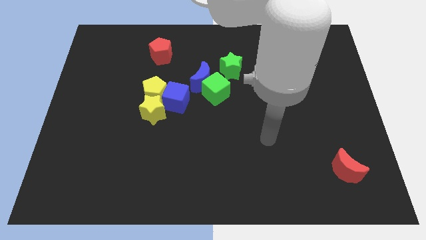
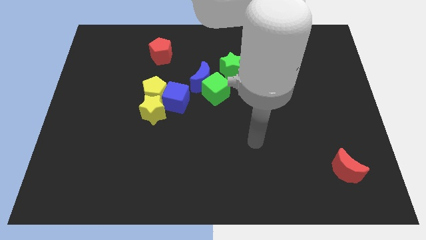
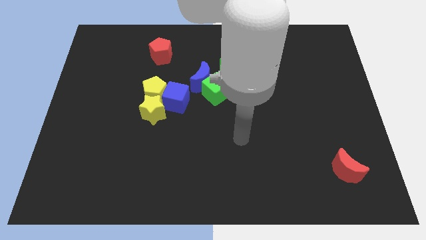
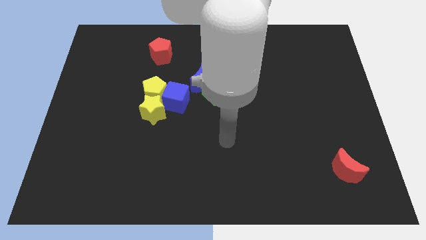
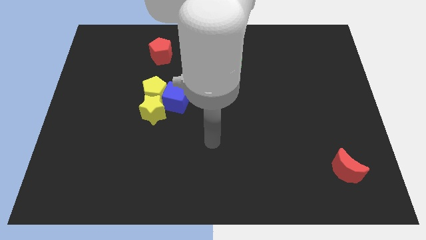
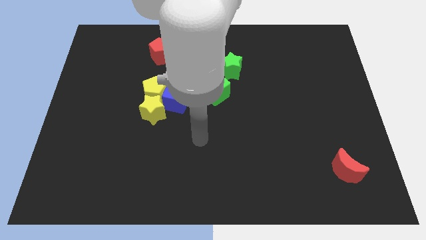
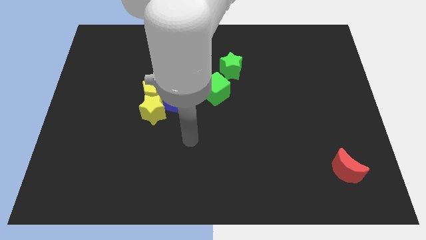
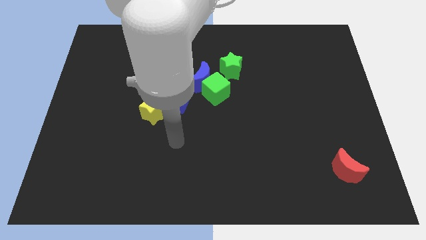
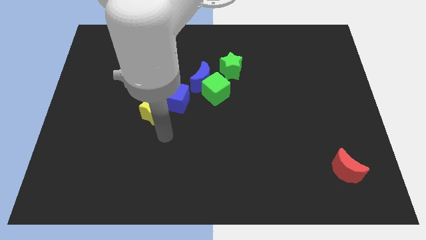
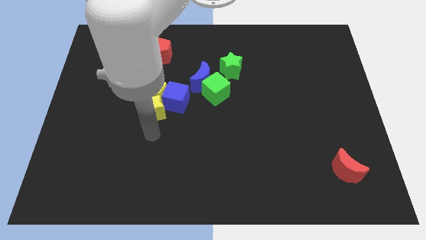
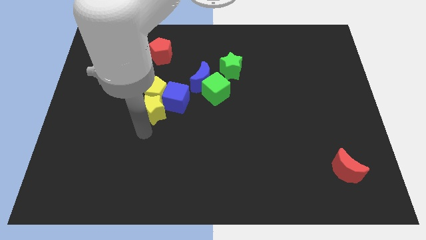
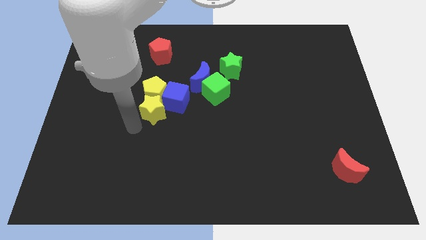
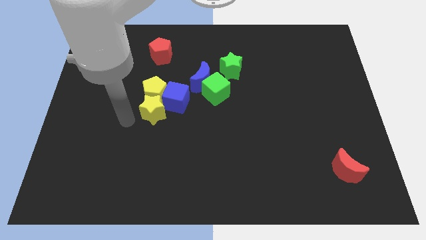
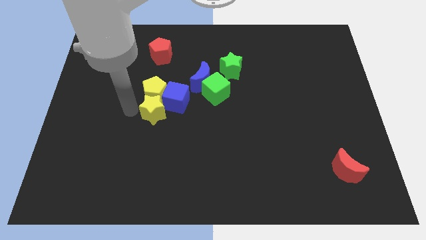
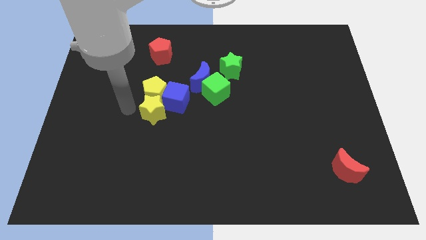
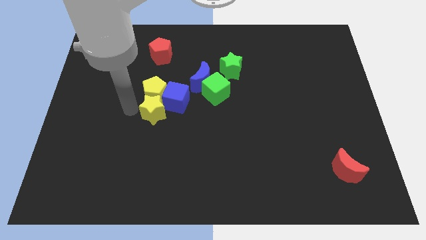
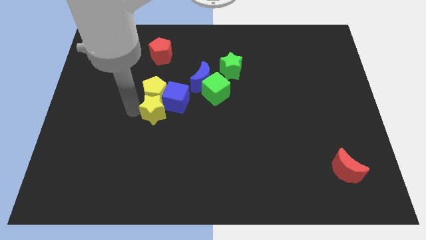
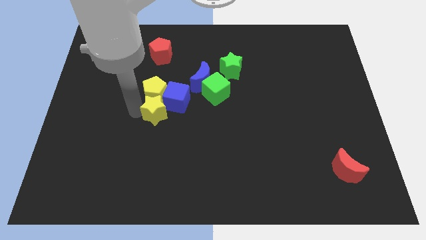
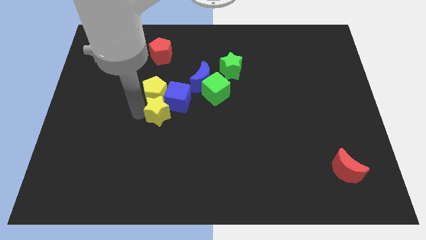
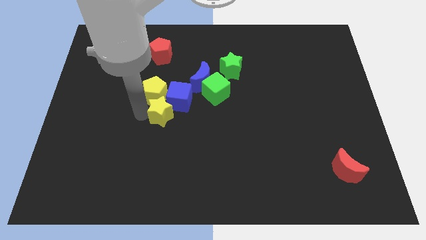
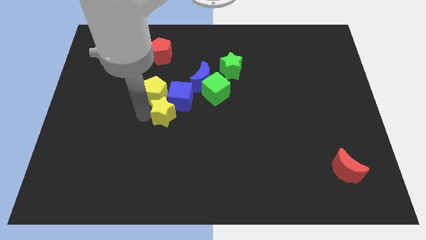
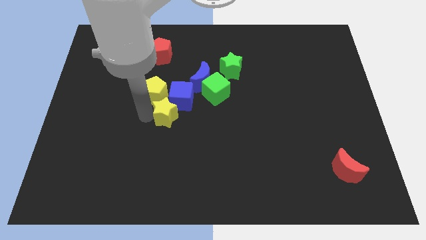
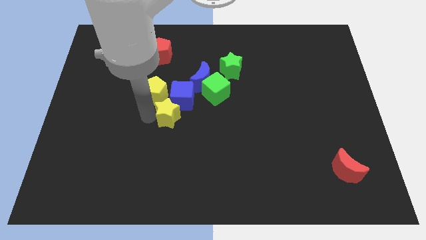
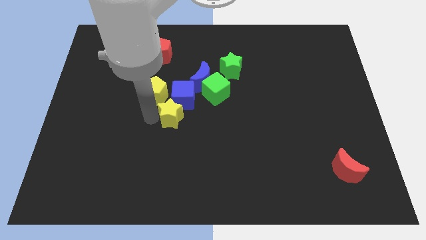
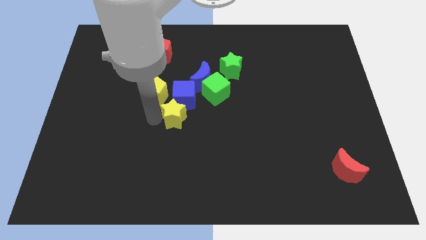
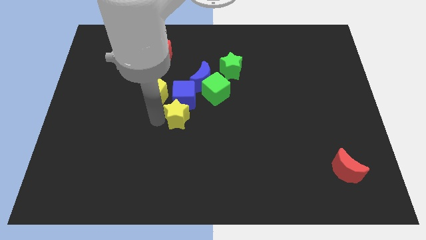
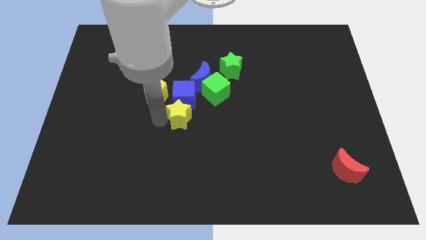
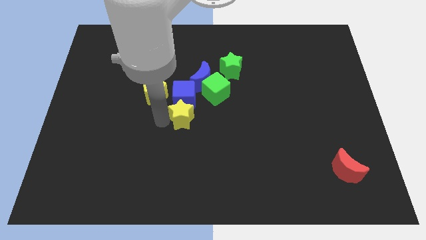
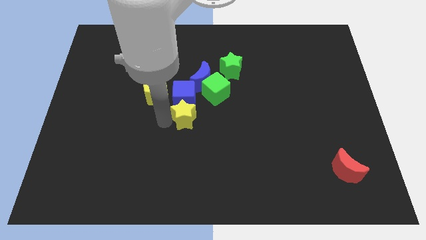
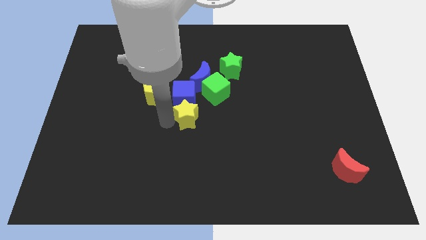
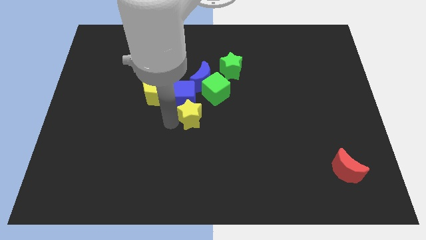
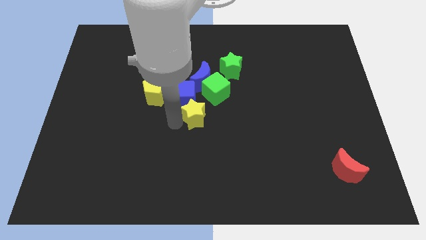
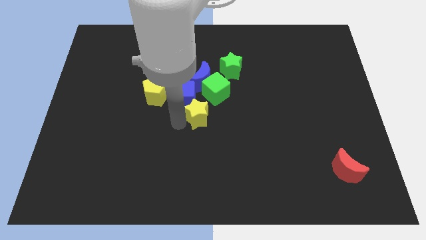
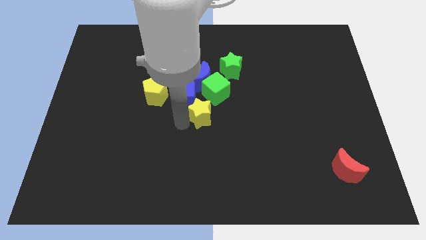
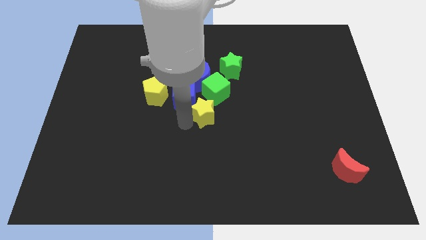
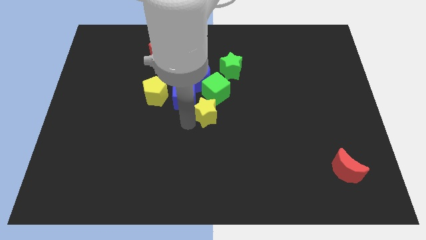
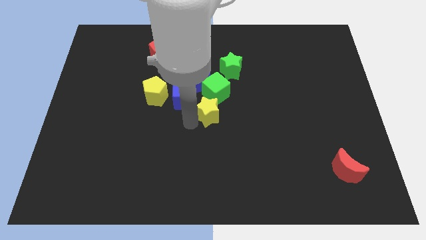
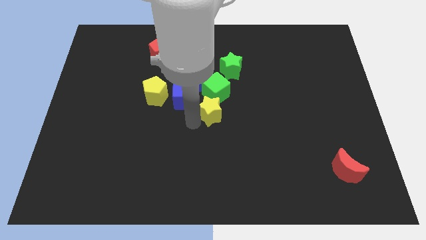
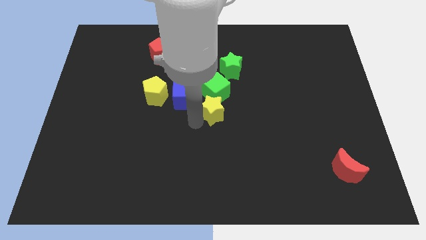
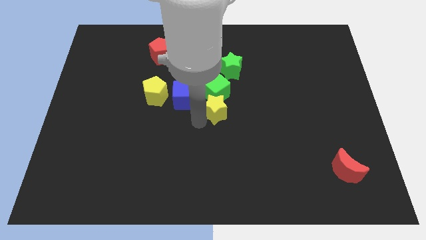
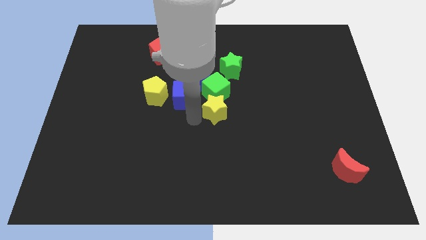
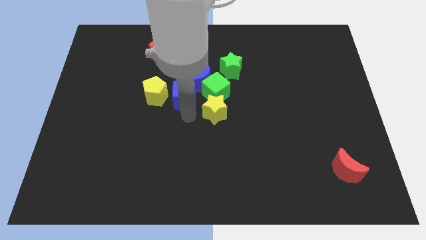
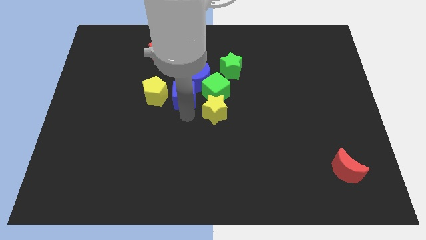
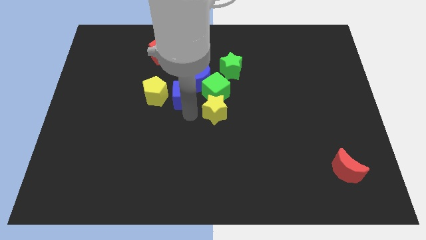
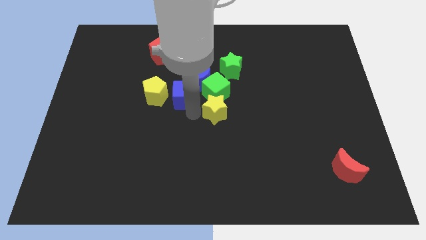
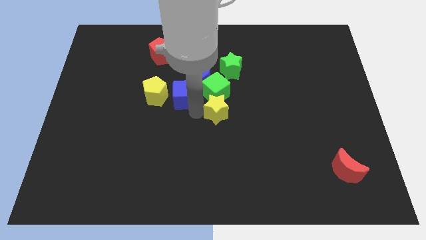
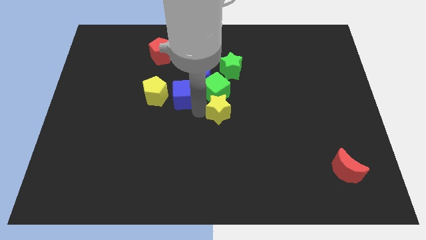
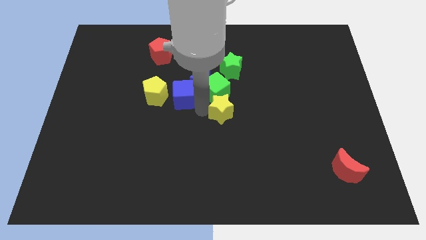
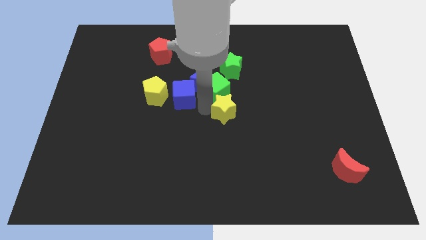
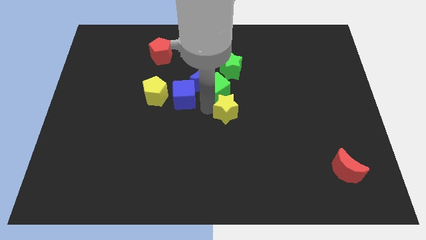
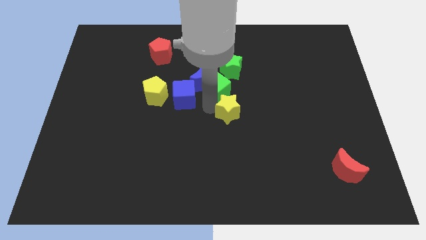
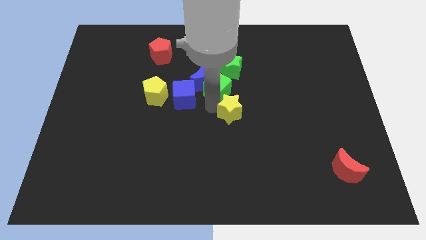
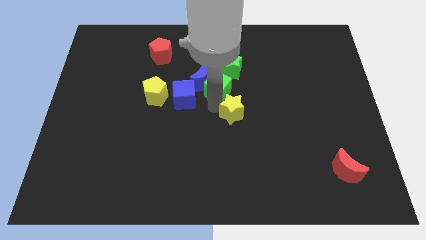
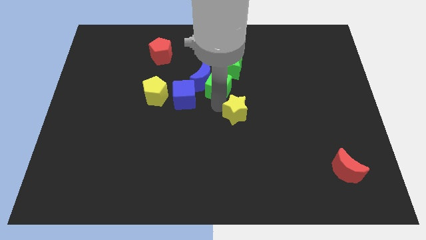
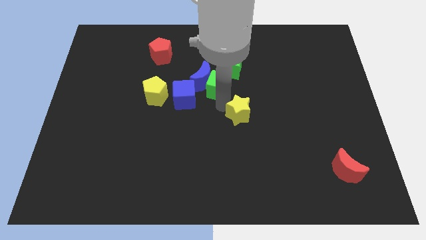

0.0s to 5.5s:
slide the yellow star to the right

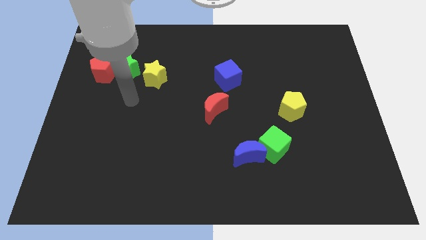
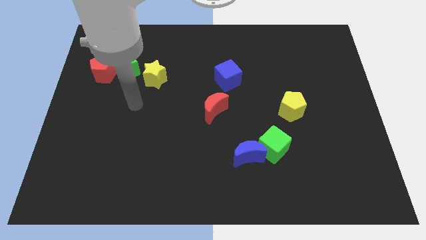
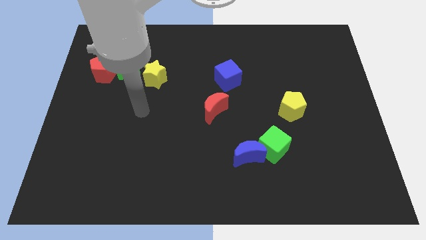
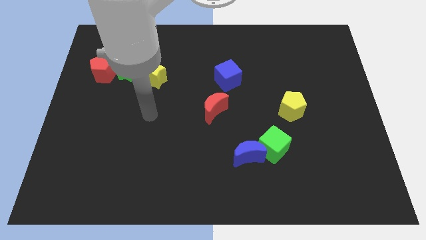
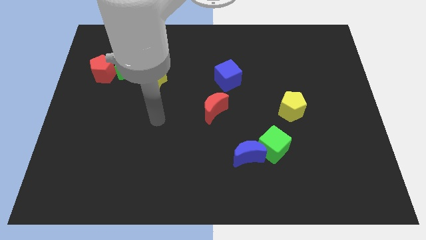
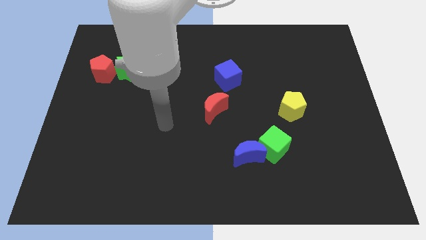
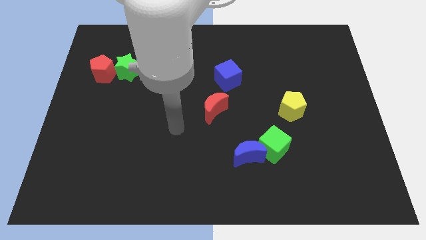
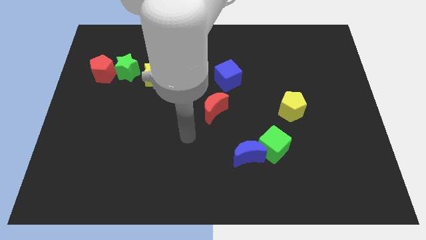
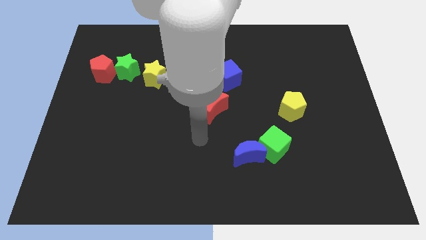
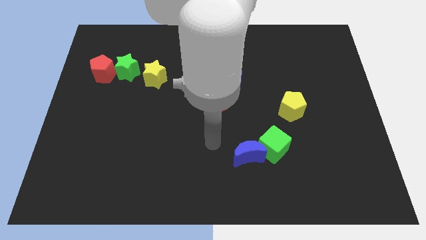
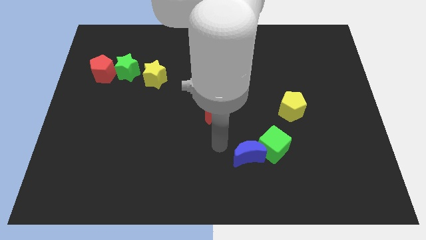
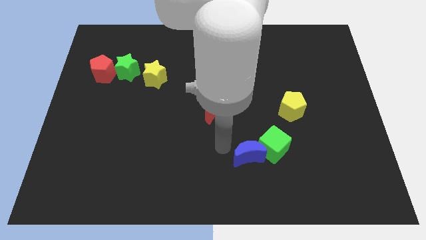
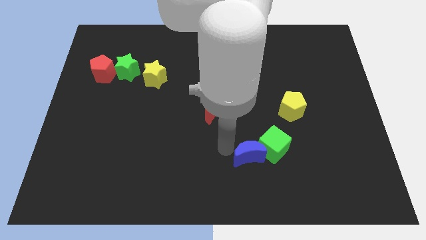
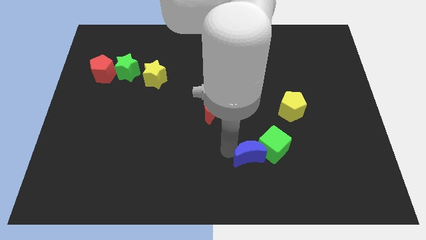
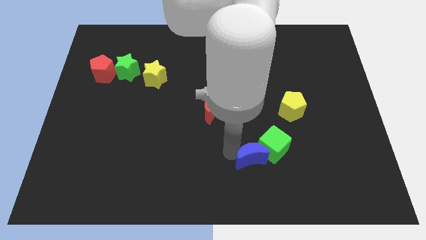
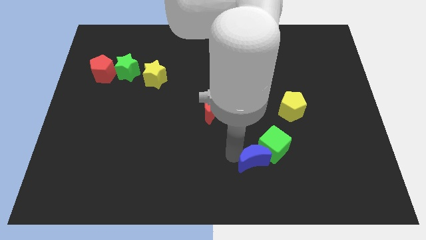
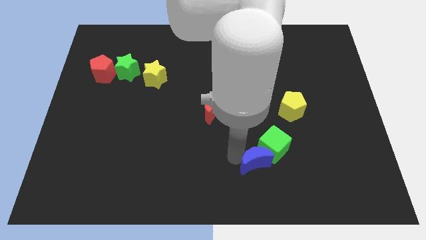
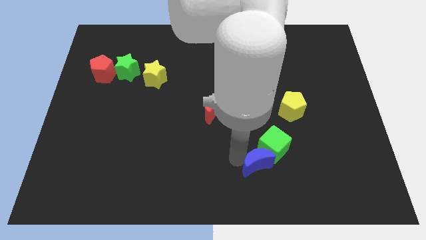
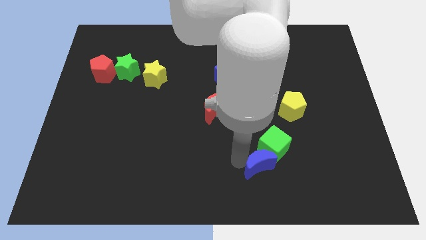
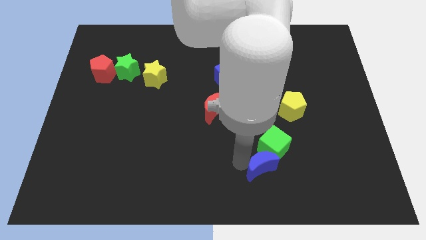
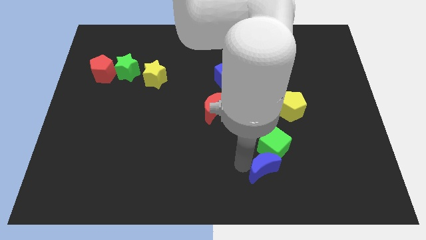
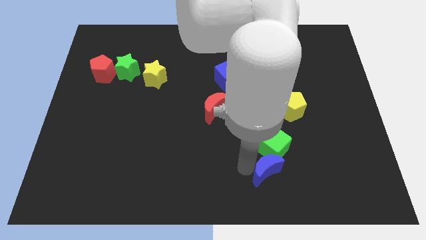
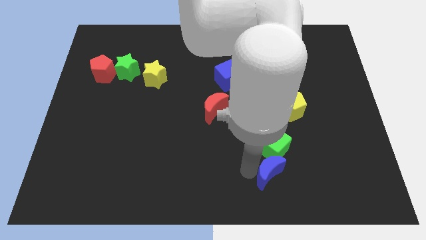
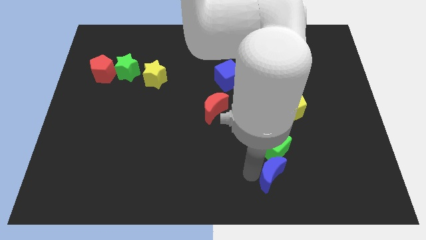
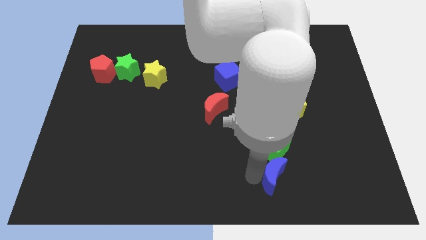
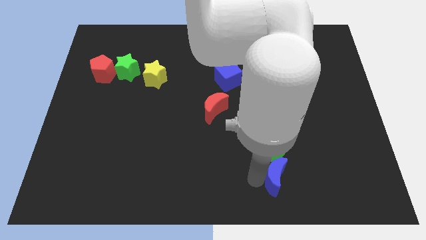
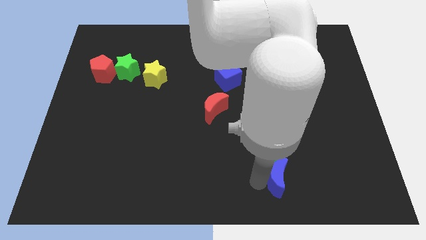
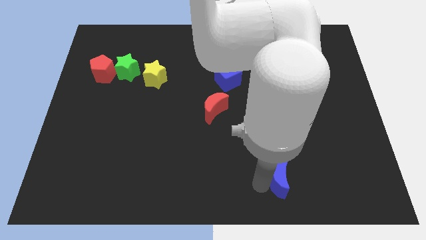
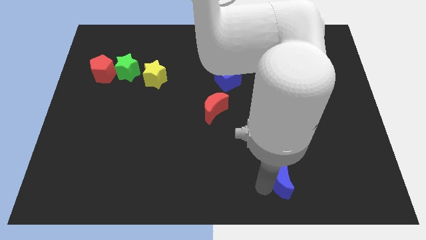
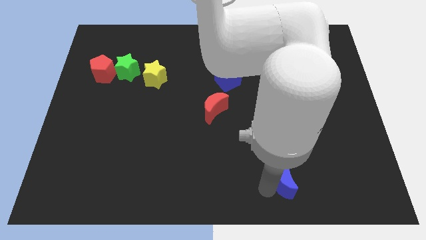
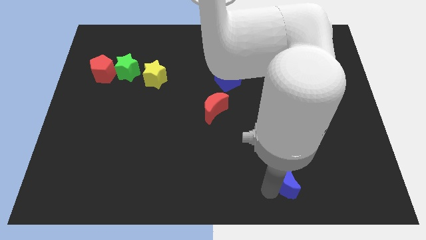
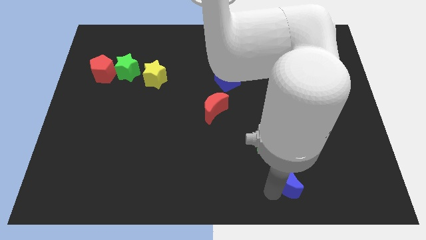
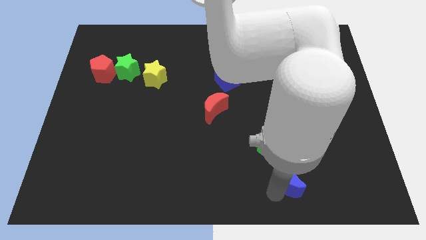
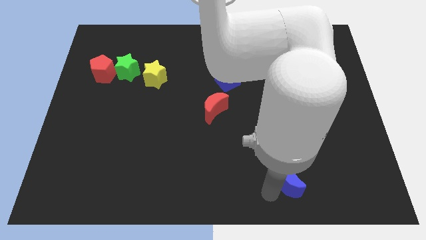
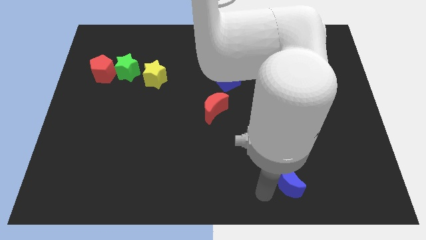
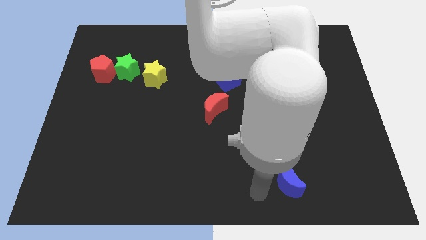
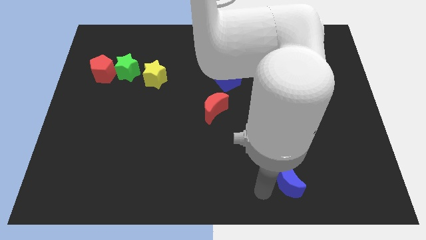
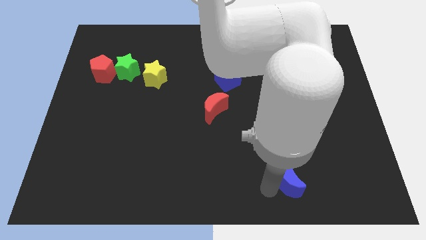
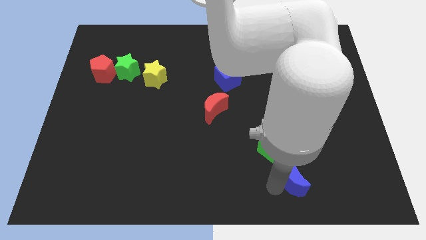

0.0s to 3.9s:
slightly push the blue moon to the right
